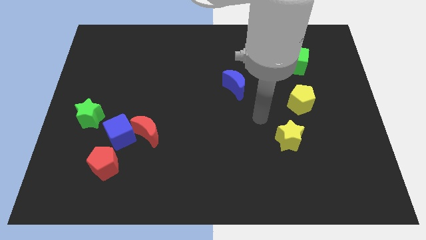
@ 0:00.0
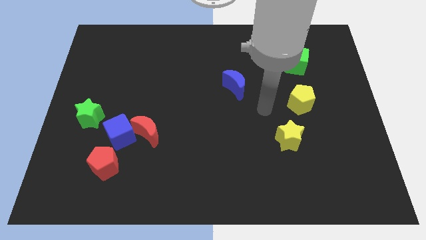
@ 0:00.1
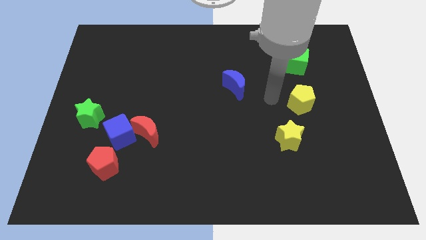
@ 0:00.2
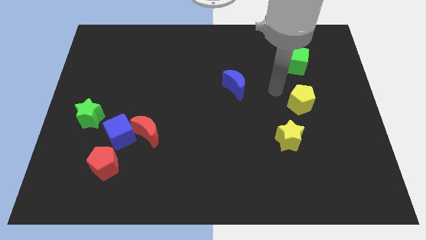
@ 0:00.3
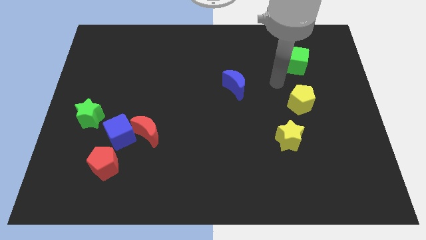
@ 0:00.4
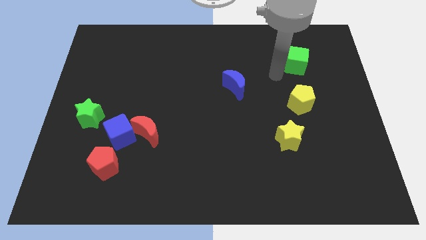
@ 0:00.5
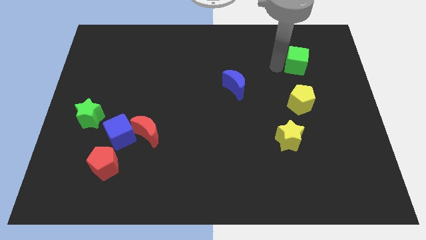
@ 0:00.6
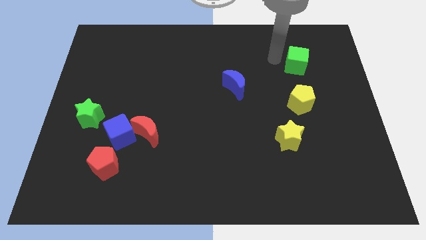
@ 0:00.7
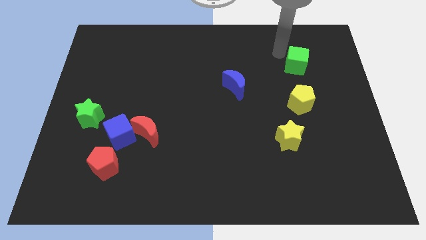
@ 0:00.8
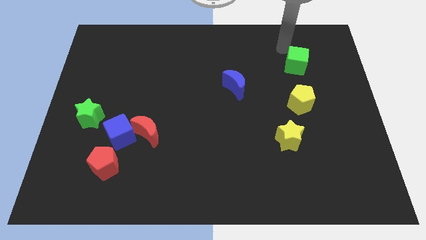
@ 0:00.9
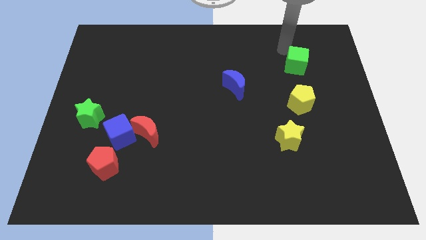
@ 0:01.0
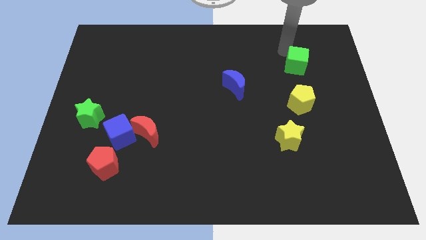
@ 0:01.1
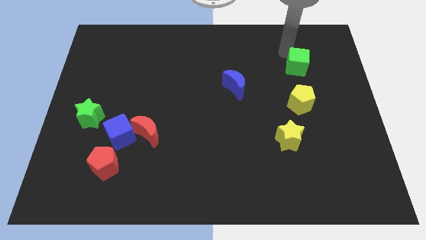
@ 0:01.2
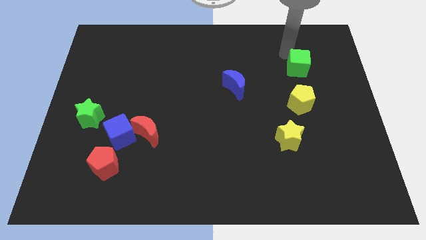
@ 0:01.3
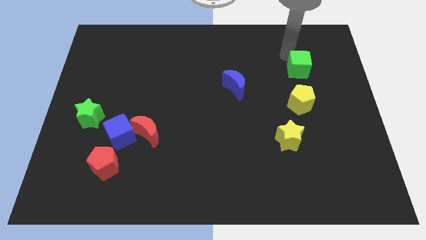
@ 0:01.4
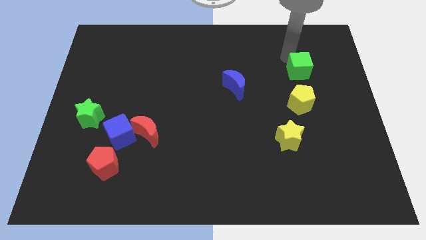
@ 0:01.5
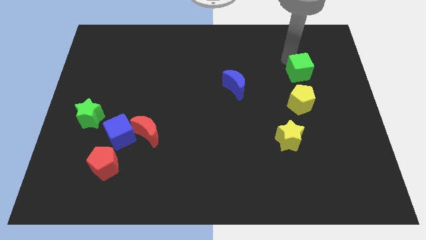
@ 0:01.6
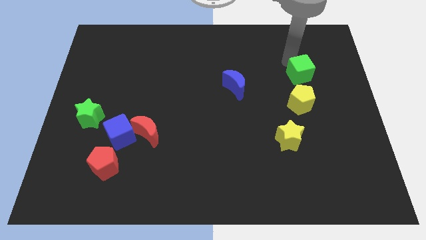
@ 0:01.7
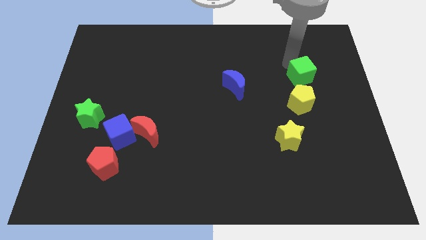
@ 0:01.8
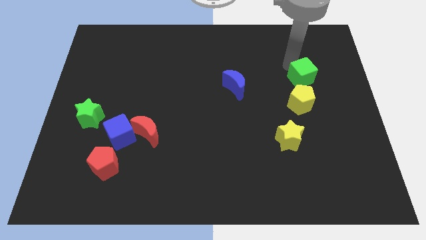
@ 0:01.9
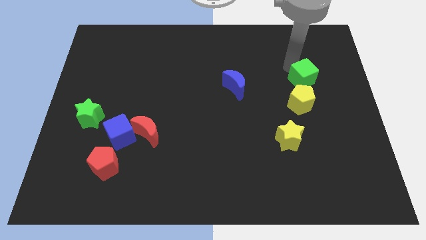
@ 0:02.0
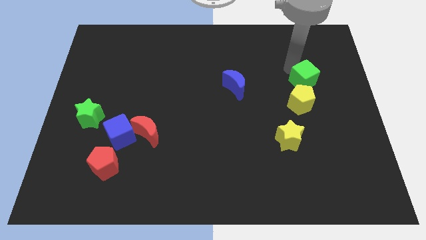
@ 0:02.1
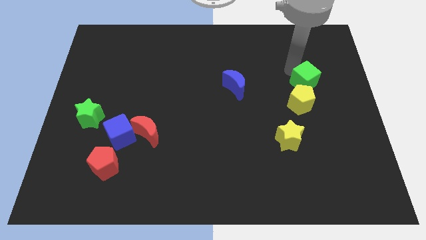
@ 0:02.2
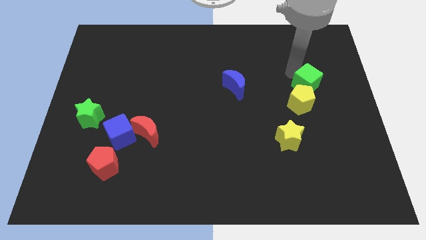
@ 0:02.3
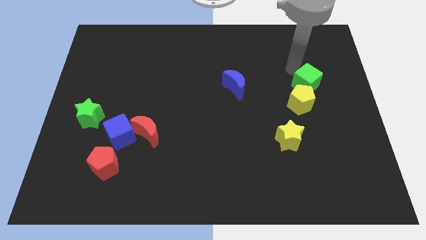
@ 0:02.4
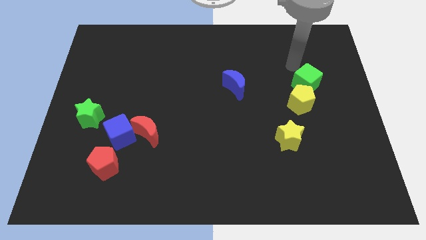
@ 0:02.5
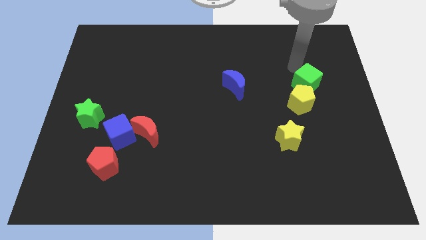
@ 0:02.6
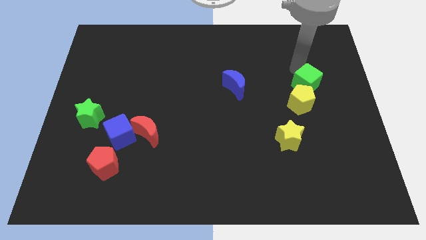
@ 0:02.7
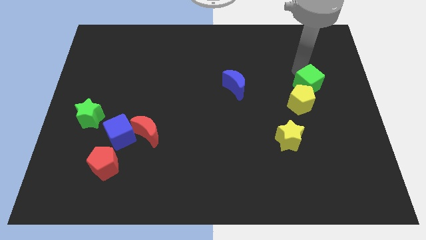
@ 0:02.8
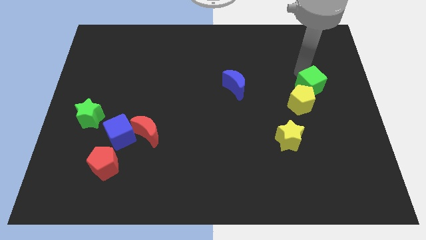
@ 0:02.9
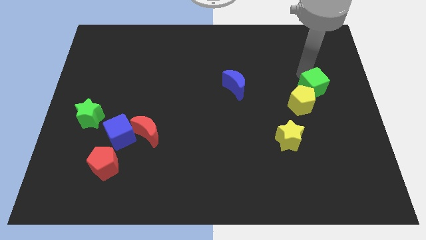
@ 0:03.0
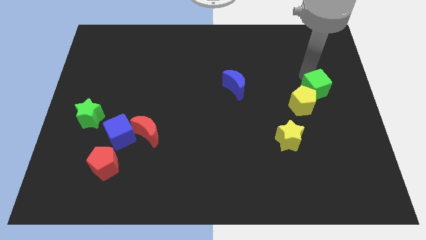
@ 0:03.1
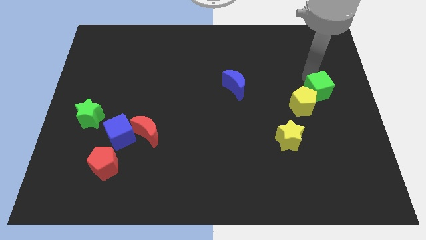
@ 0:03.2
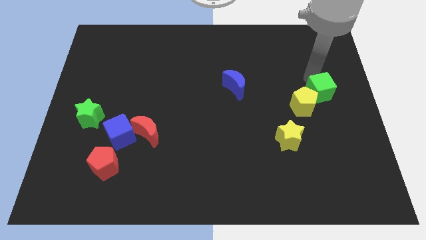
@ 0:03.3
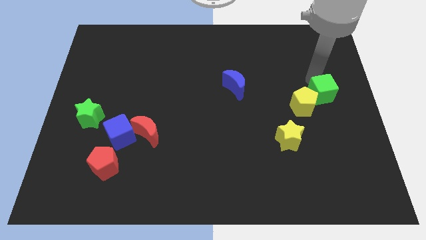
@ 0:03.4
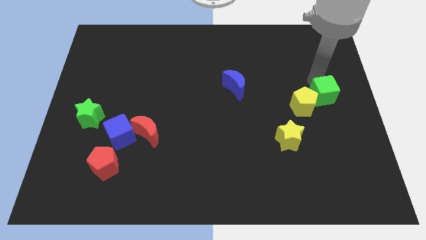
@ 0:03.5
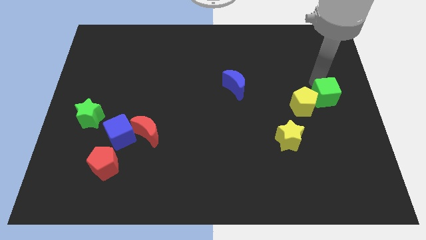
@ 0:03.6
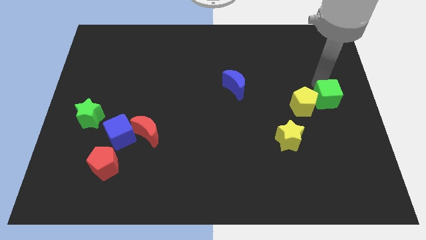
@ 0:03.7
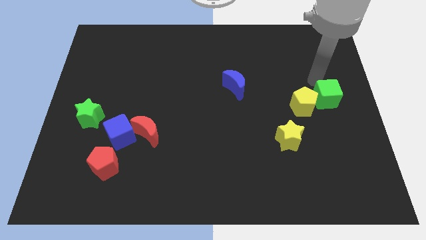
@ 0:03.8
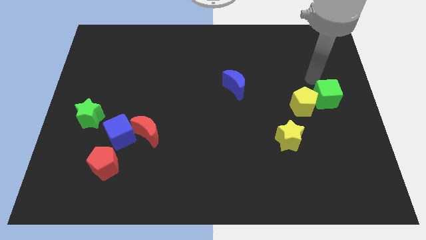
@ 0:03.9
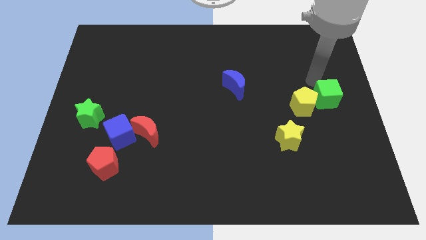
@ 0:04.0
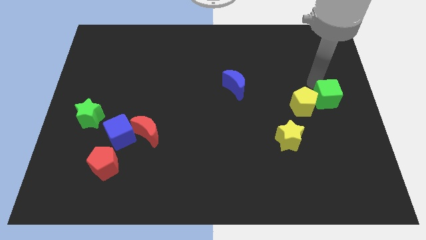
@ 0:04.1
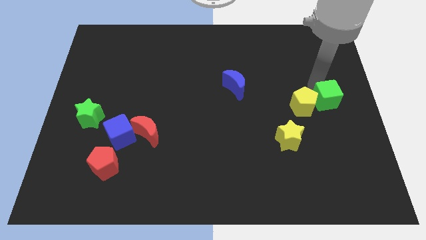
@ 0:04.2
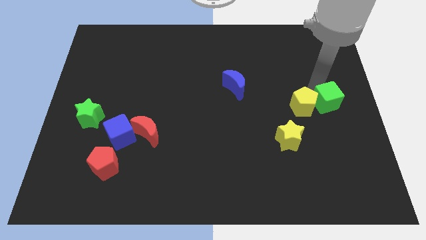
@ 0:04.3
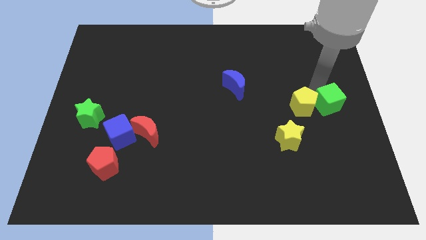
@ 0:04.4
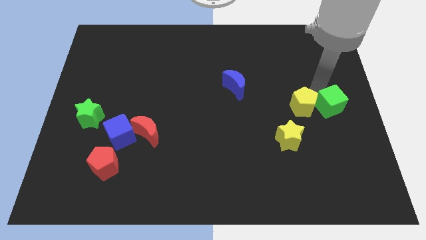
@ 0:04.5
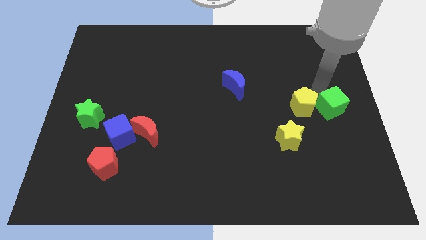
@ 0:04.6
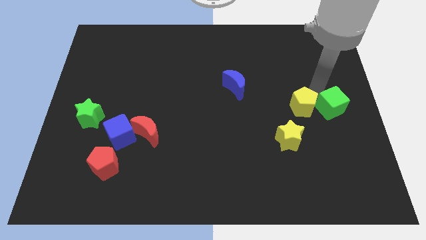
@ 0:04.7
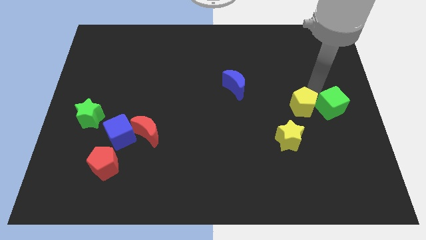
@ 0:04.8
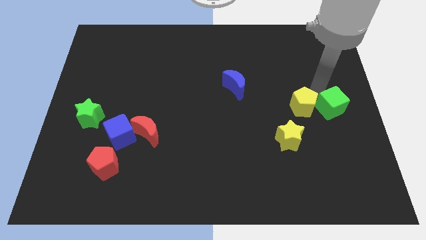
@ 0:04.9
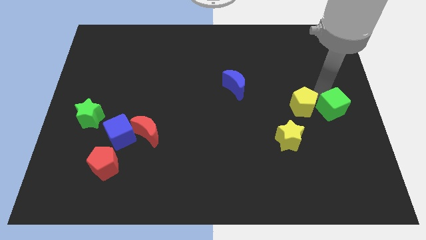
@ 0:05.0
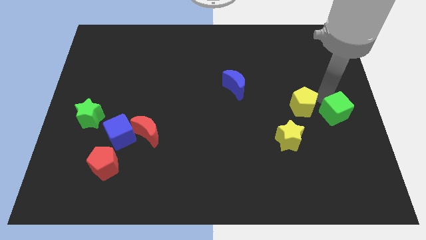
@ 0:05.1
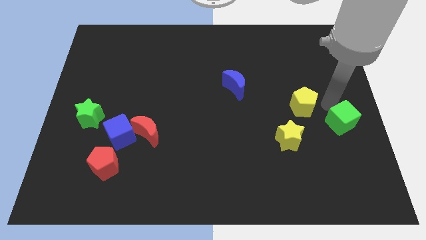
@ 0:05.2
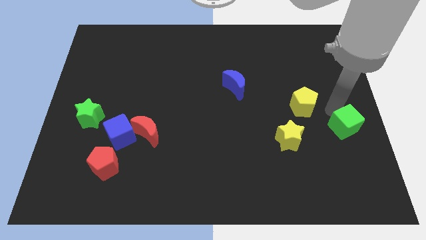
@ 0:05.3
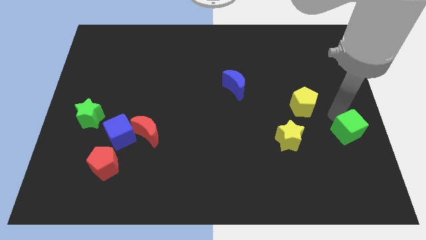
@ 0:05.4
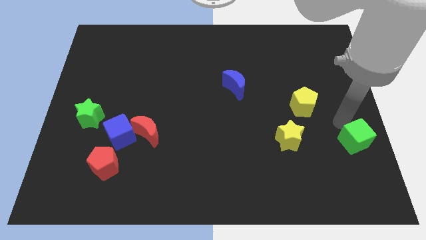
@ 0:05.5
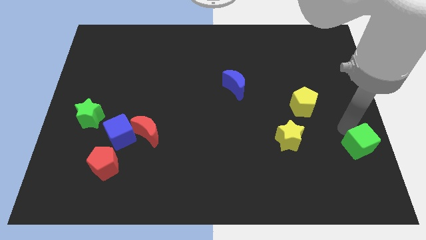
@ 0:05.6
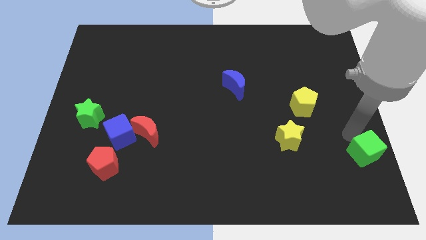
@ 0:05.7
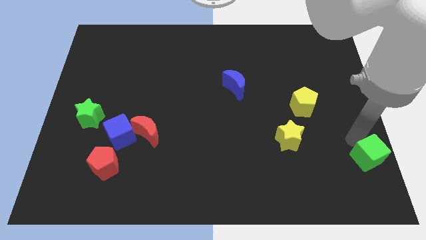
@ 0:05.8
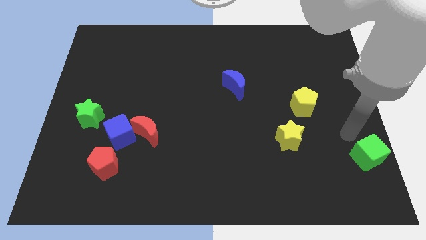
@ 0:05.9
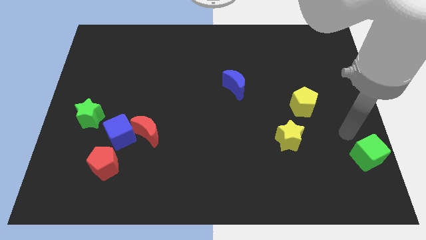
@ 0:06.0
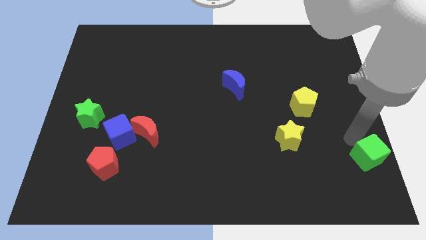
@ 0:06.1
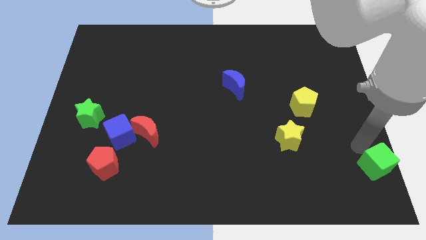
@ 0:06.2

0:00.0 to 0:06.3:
push the green cube to the bottom right of the board
